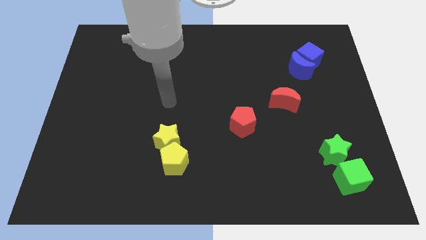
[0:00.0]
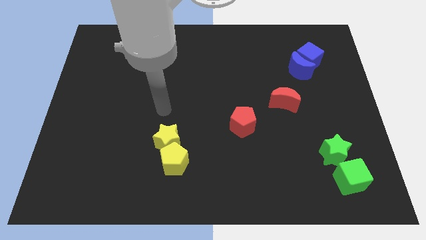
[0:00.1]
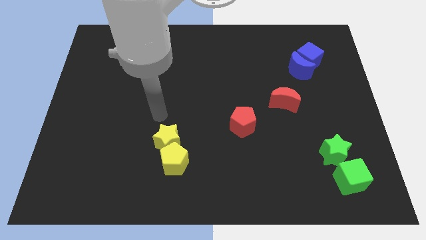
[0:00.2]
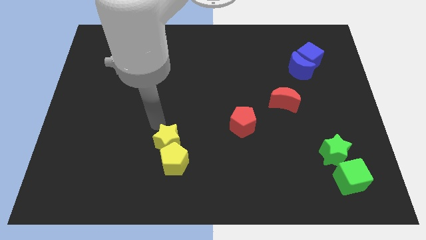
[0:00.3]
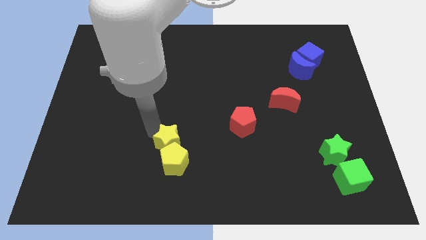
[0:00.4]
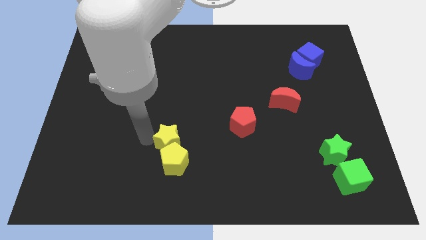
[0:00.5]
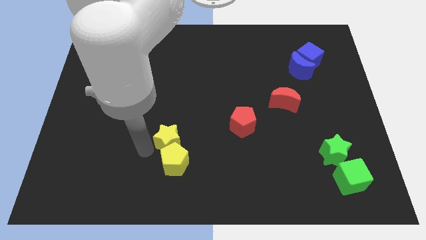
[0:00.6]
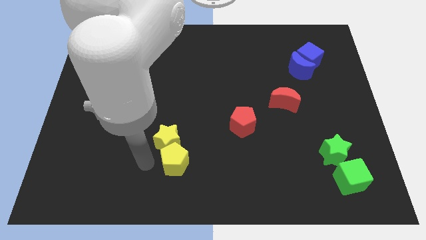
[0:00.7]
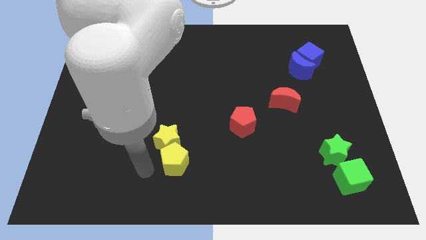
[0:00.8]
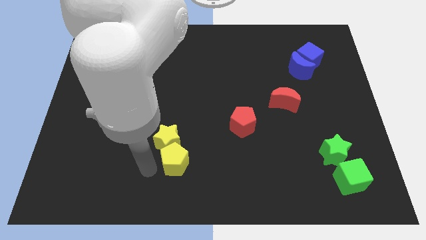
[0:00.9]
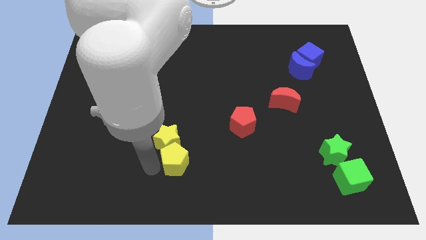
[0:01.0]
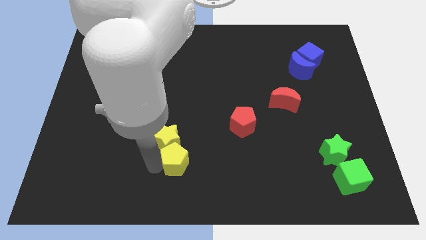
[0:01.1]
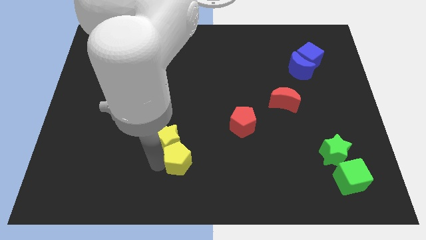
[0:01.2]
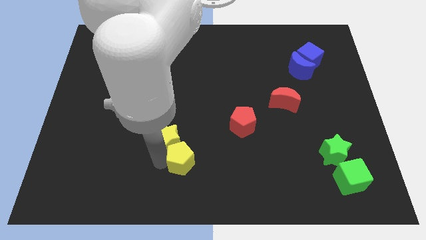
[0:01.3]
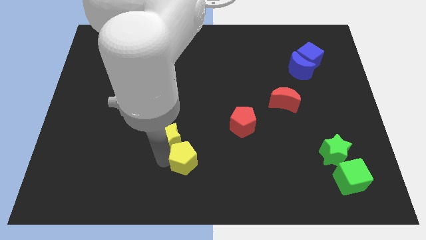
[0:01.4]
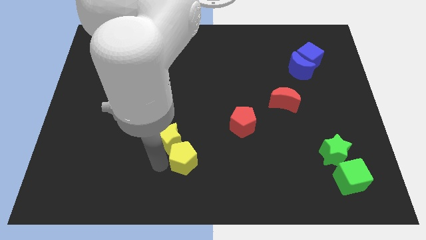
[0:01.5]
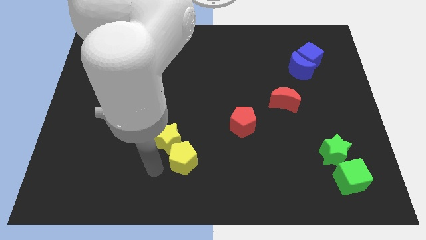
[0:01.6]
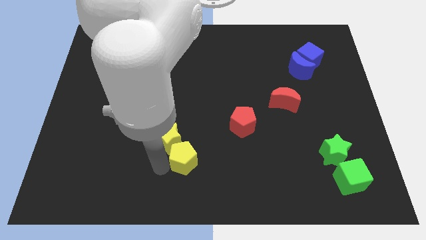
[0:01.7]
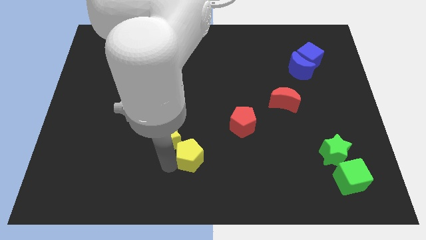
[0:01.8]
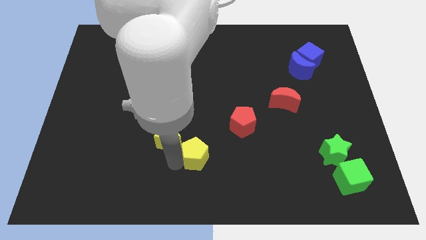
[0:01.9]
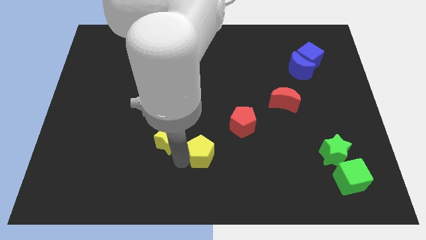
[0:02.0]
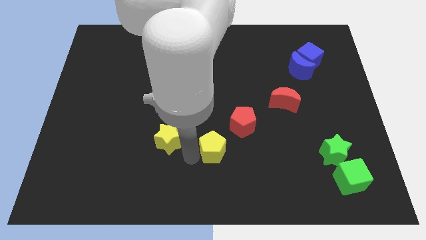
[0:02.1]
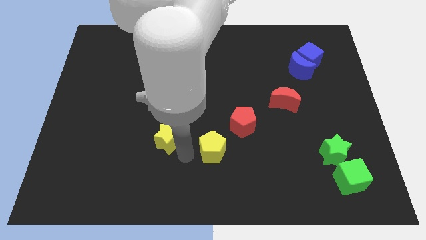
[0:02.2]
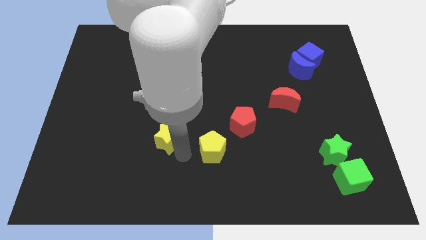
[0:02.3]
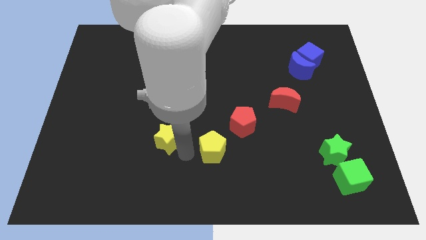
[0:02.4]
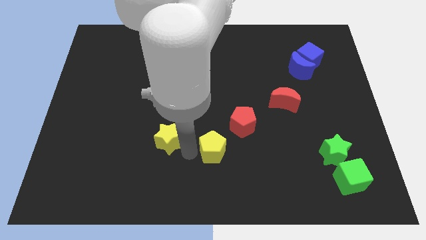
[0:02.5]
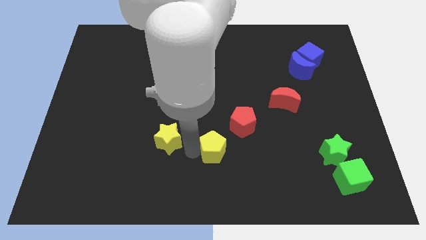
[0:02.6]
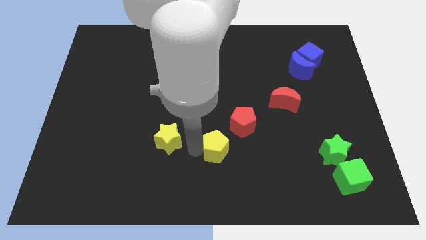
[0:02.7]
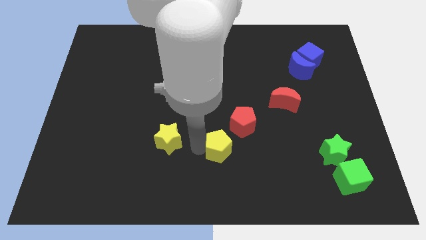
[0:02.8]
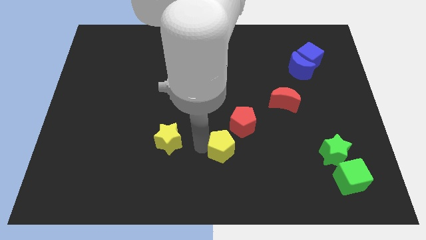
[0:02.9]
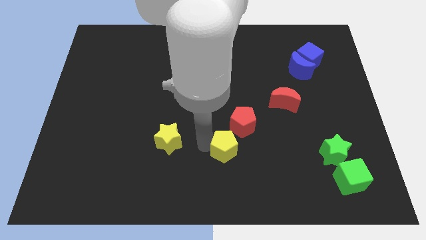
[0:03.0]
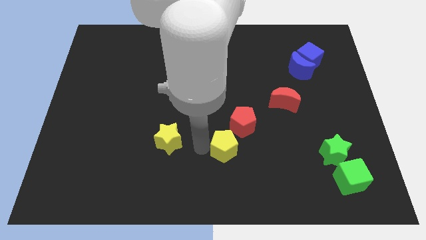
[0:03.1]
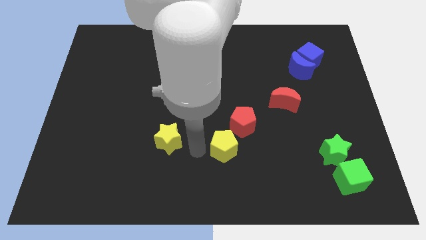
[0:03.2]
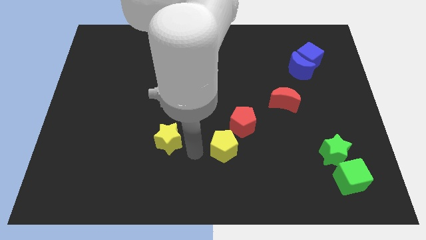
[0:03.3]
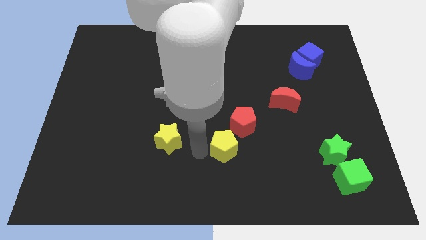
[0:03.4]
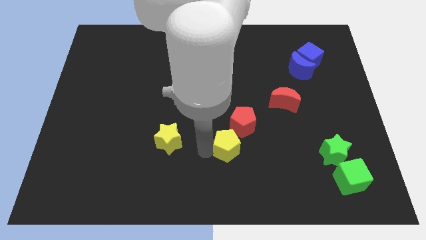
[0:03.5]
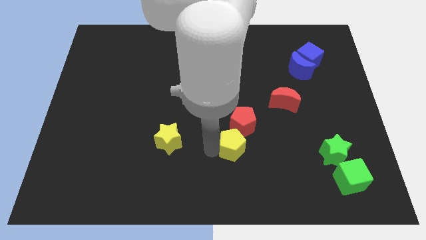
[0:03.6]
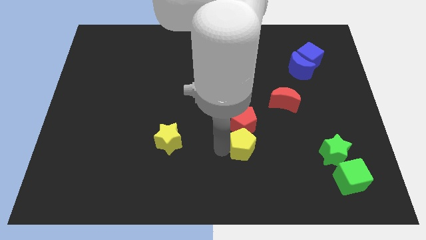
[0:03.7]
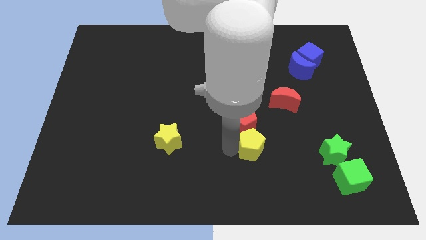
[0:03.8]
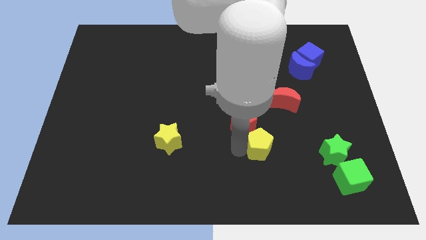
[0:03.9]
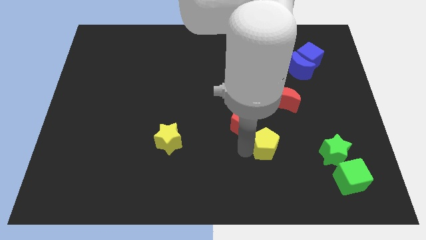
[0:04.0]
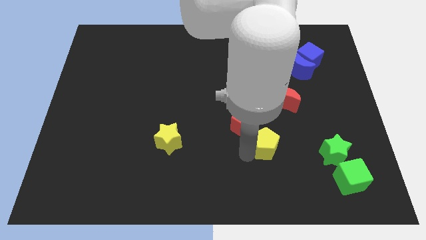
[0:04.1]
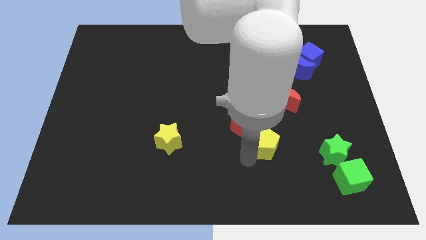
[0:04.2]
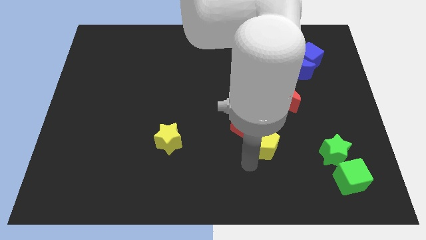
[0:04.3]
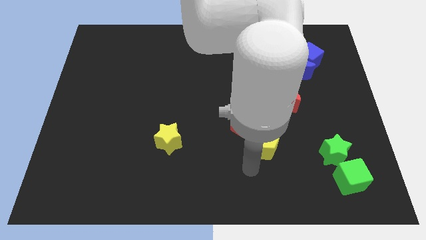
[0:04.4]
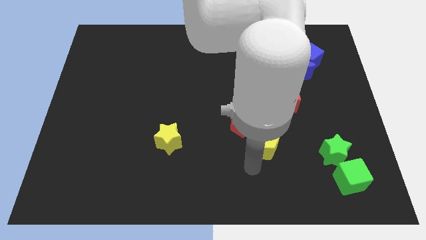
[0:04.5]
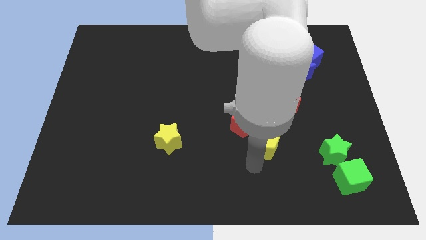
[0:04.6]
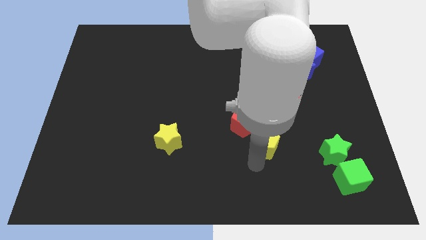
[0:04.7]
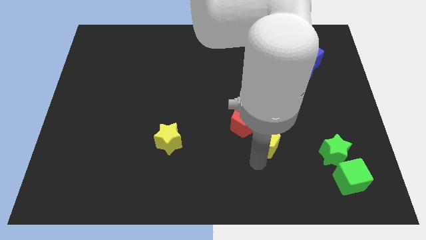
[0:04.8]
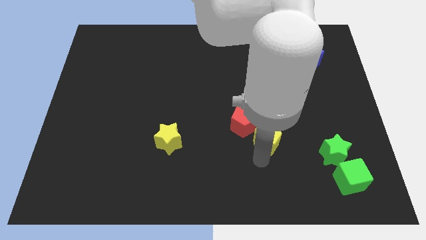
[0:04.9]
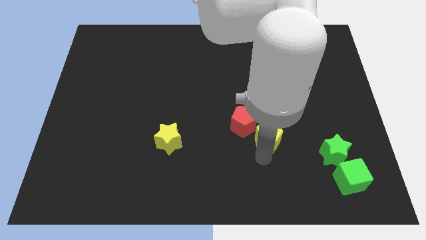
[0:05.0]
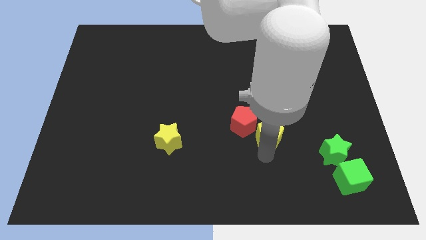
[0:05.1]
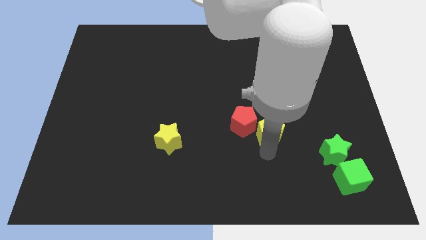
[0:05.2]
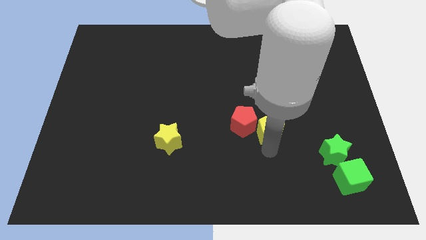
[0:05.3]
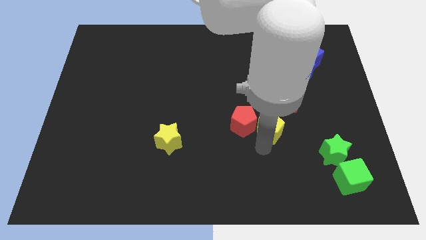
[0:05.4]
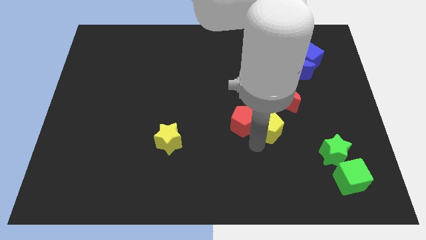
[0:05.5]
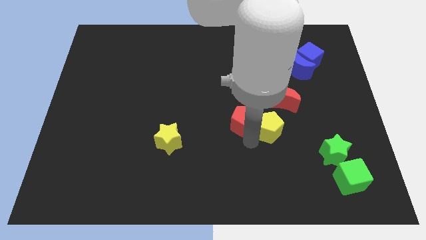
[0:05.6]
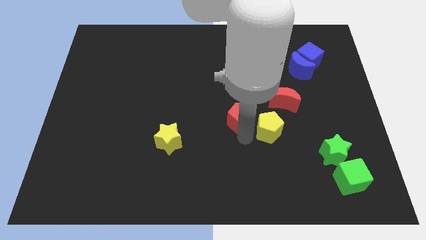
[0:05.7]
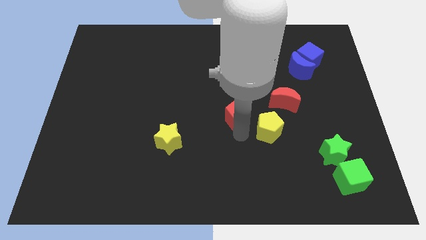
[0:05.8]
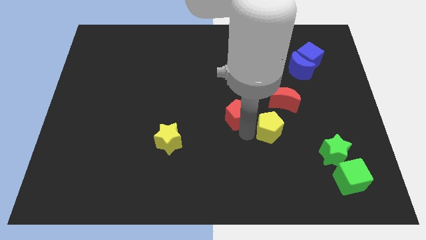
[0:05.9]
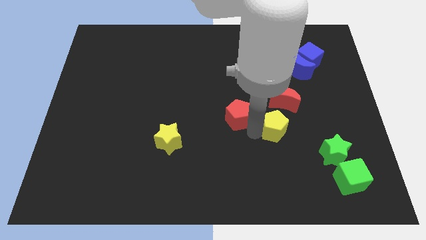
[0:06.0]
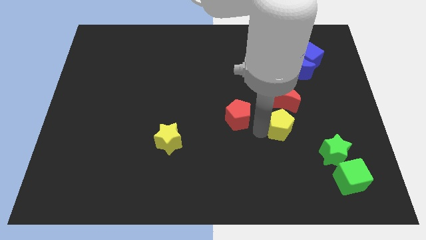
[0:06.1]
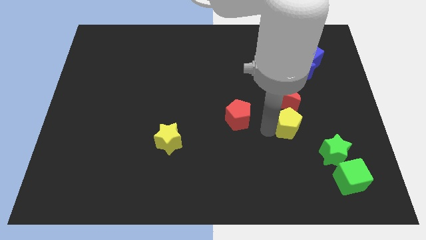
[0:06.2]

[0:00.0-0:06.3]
put the yellow pentagon to the bottom right side of the red moon

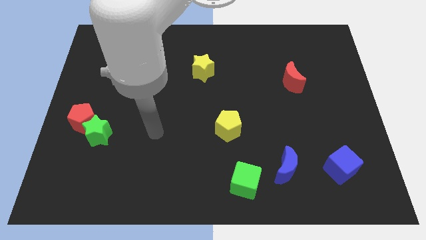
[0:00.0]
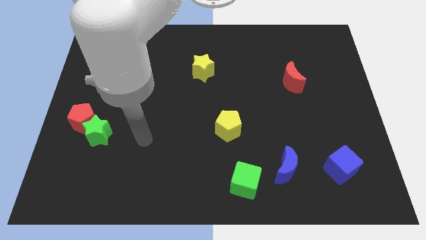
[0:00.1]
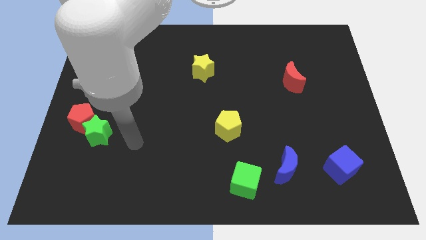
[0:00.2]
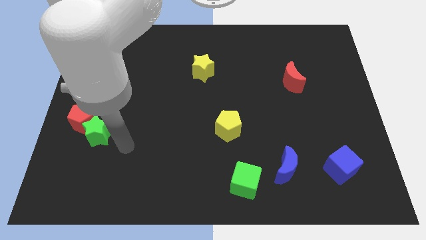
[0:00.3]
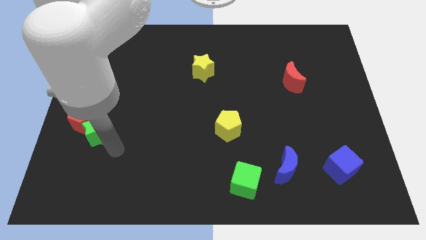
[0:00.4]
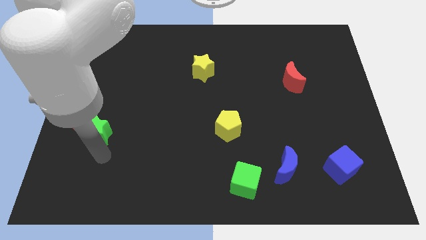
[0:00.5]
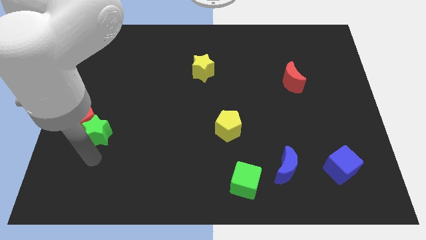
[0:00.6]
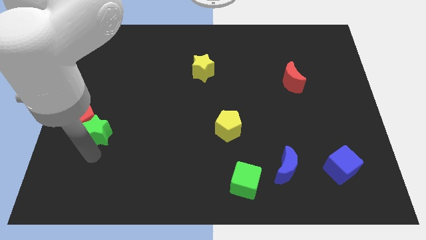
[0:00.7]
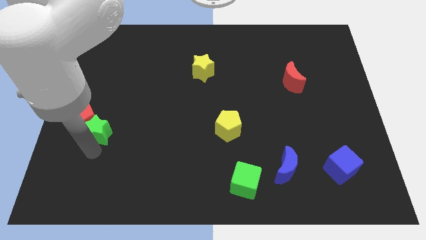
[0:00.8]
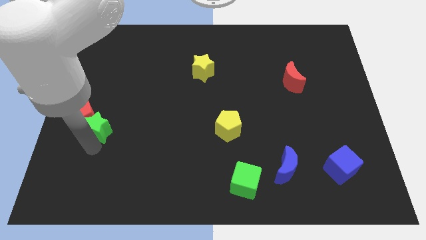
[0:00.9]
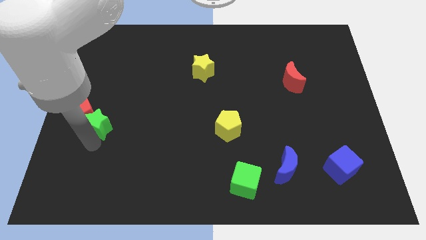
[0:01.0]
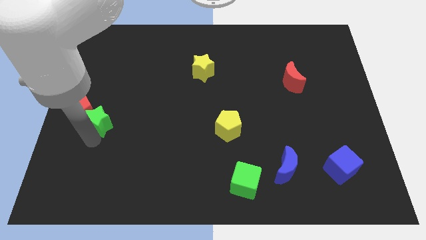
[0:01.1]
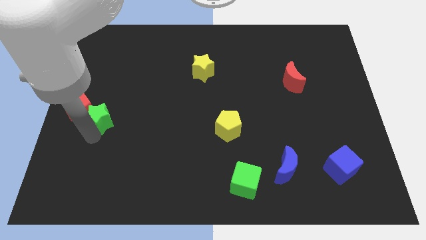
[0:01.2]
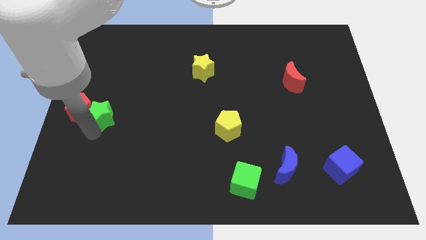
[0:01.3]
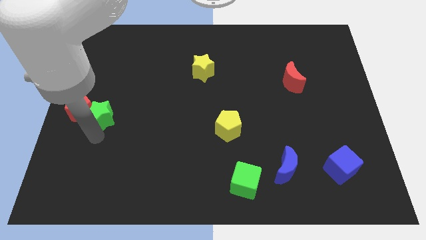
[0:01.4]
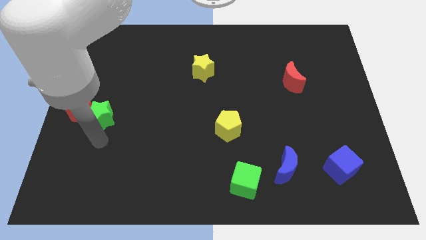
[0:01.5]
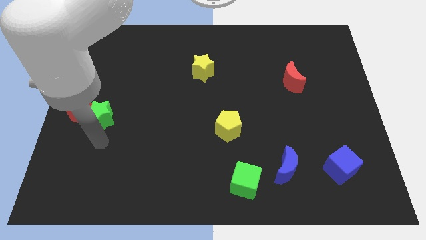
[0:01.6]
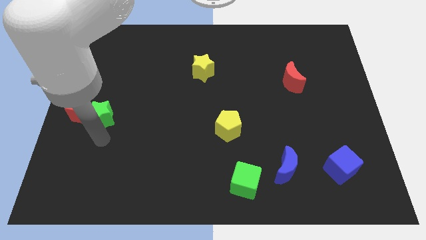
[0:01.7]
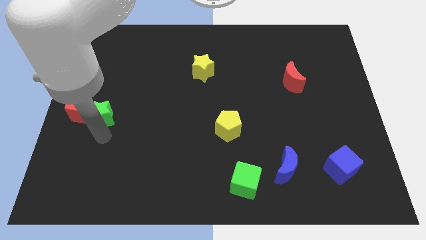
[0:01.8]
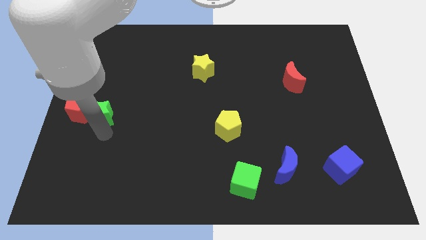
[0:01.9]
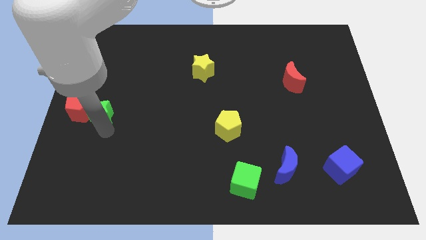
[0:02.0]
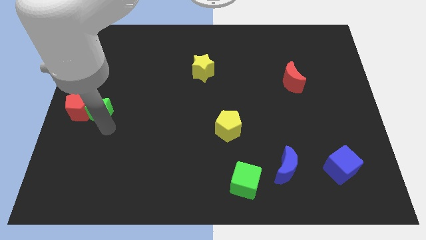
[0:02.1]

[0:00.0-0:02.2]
push the green star to the top right side of the red pentagon
